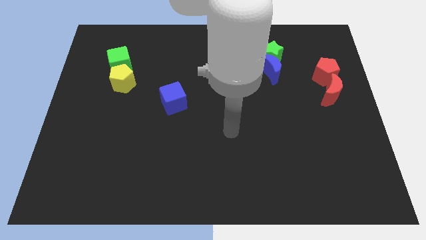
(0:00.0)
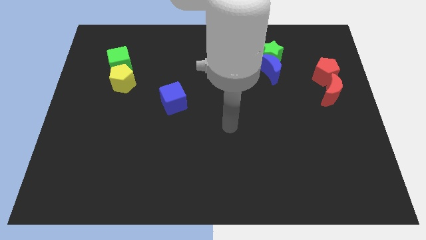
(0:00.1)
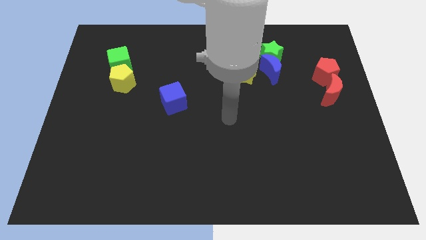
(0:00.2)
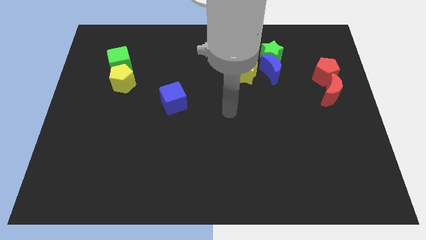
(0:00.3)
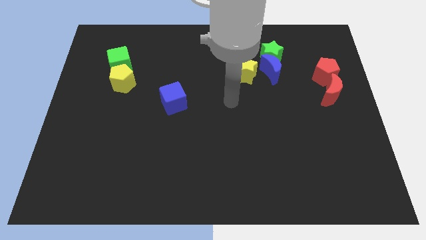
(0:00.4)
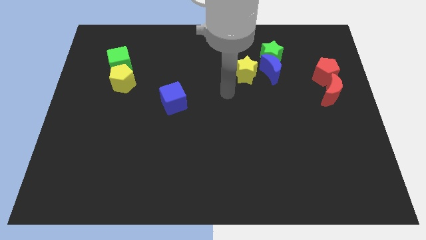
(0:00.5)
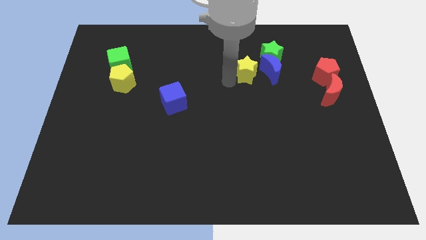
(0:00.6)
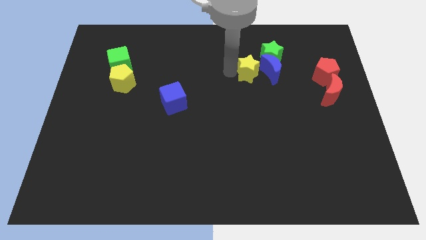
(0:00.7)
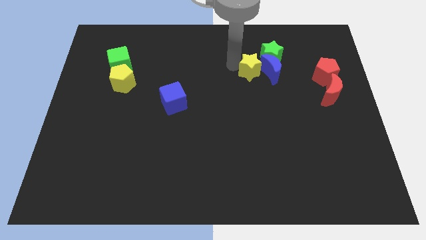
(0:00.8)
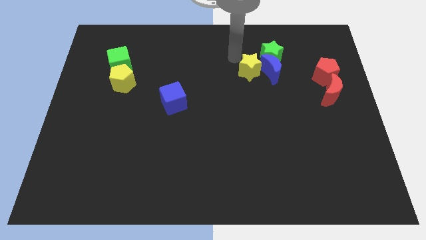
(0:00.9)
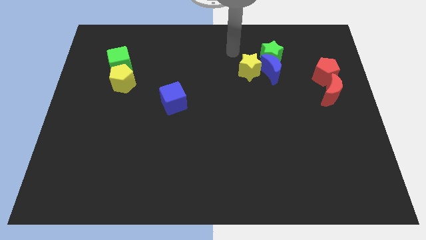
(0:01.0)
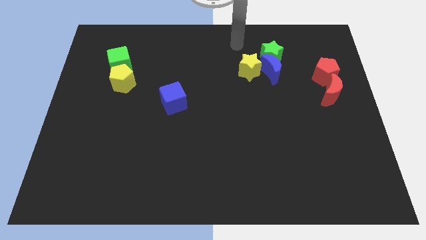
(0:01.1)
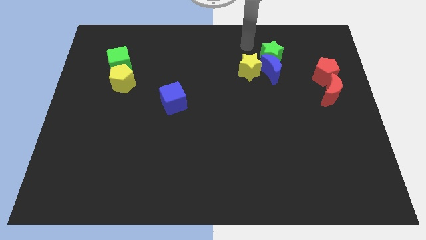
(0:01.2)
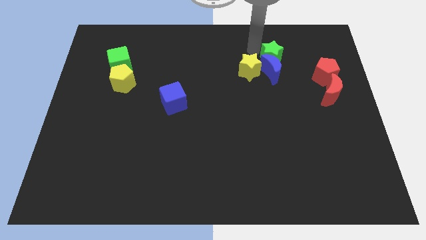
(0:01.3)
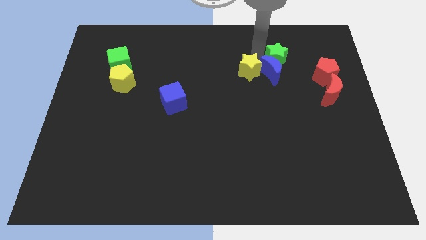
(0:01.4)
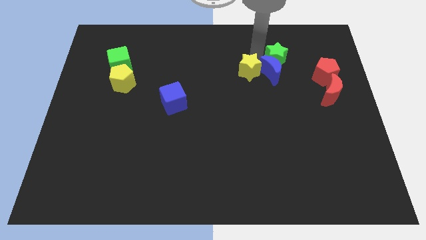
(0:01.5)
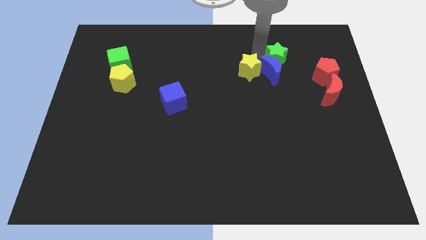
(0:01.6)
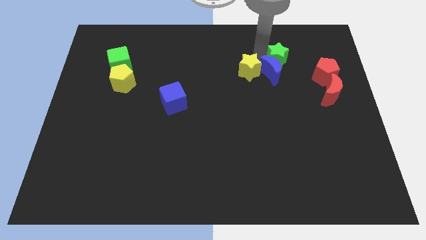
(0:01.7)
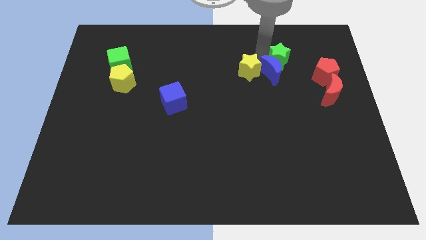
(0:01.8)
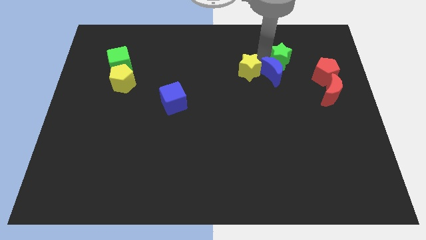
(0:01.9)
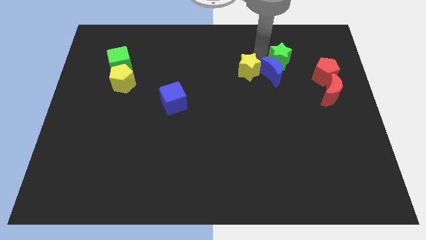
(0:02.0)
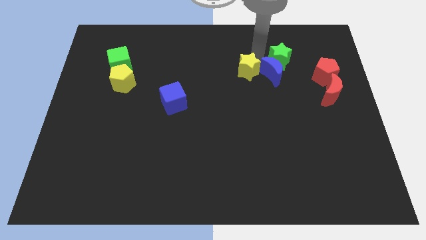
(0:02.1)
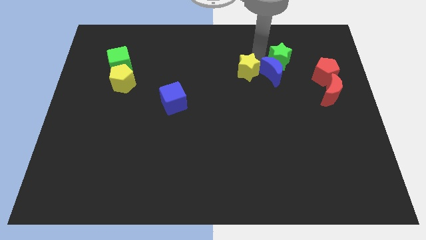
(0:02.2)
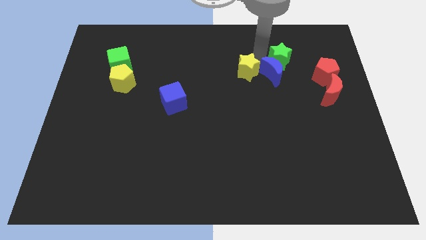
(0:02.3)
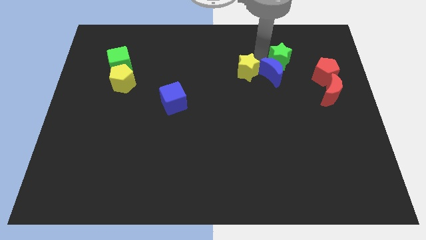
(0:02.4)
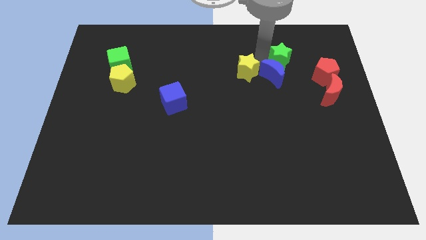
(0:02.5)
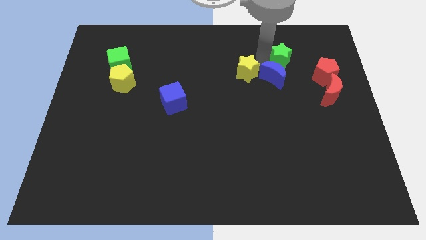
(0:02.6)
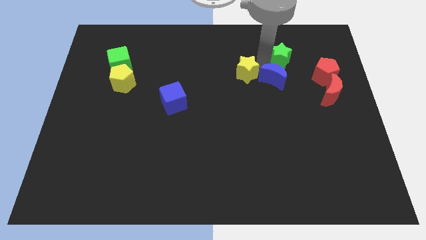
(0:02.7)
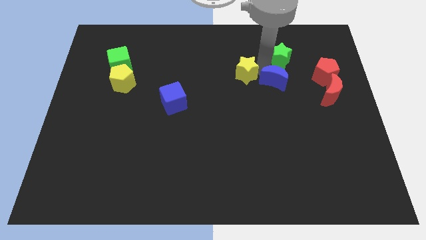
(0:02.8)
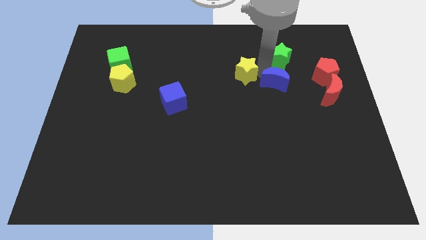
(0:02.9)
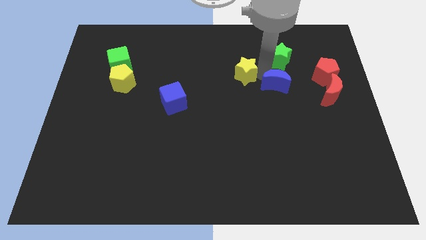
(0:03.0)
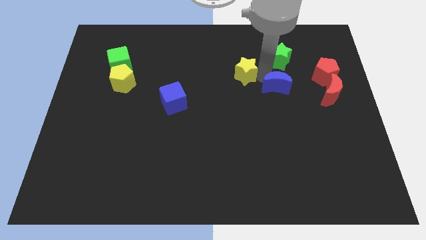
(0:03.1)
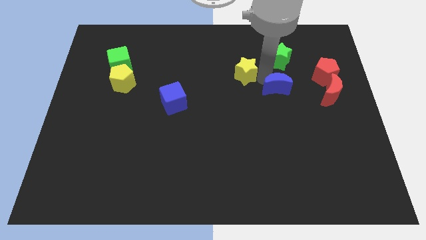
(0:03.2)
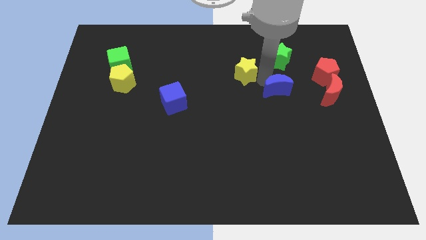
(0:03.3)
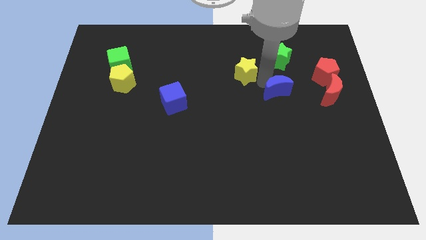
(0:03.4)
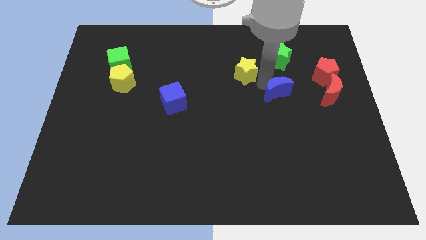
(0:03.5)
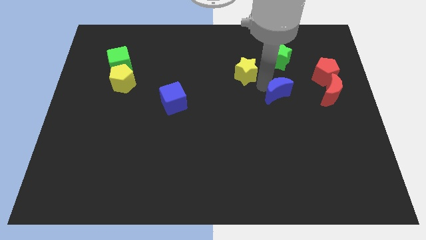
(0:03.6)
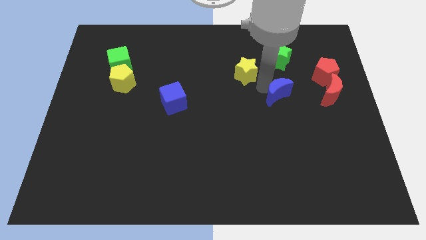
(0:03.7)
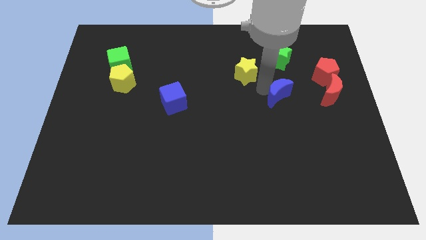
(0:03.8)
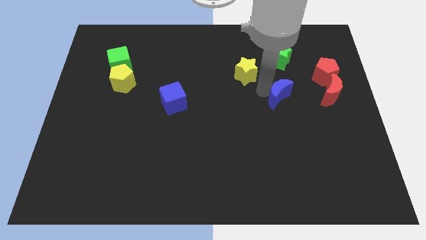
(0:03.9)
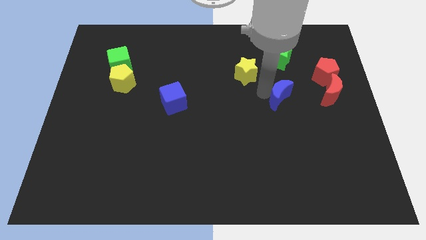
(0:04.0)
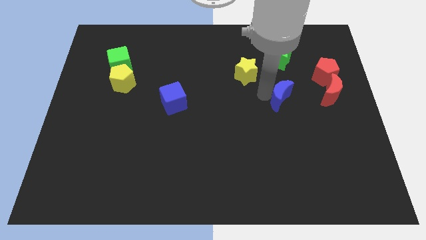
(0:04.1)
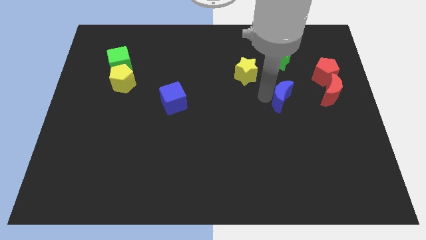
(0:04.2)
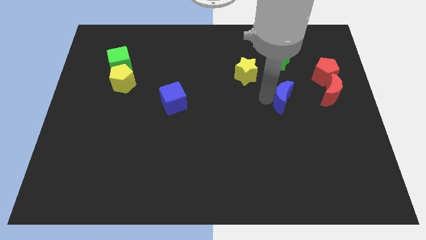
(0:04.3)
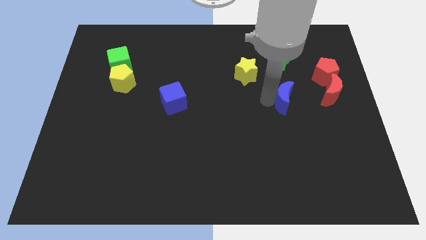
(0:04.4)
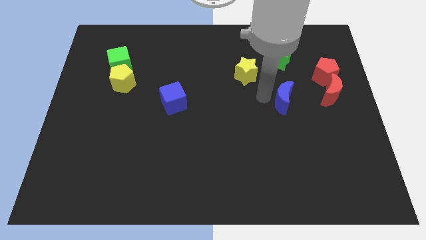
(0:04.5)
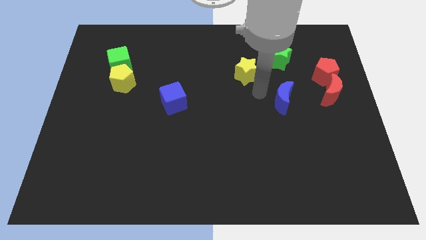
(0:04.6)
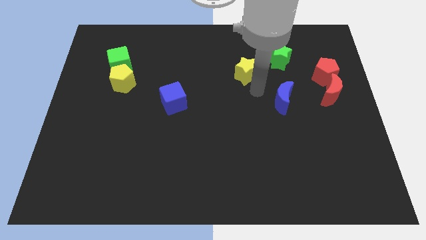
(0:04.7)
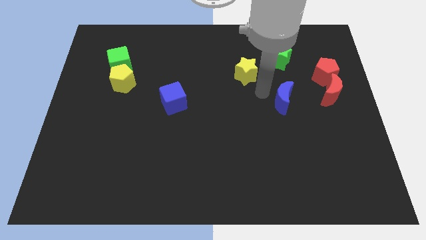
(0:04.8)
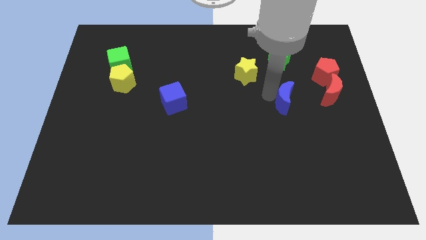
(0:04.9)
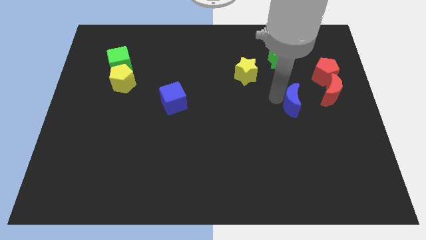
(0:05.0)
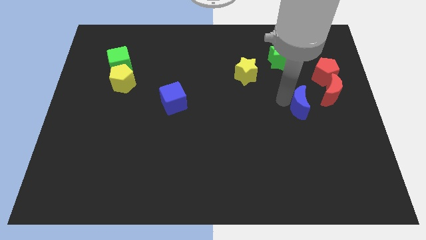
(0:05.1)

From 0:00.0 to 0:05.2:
put the blue moon to the bottom left of the red moon
